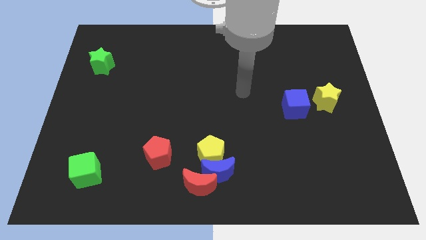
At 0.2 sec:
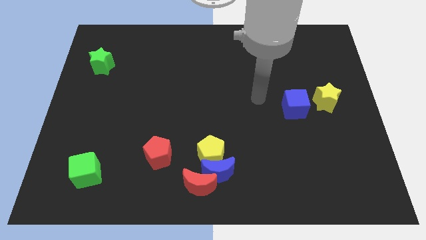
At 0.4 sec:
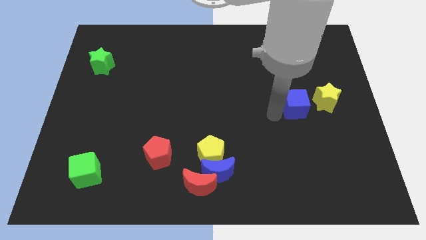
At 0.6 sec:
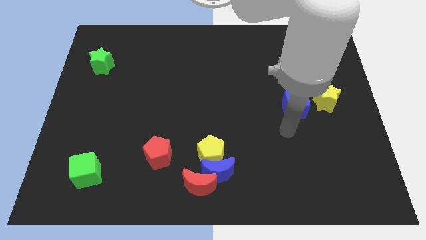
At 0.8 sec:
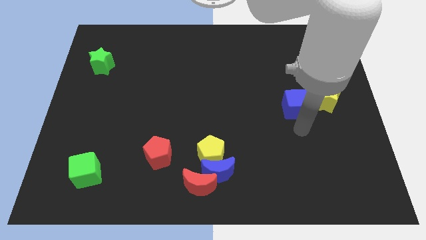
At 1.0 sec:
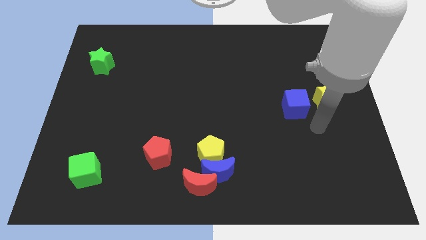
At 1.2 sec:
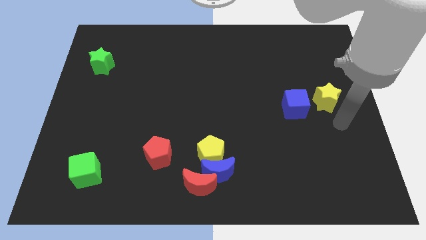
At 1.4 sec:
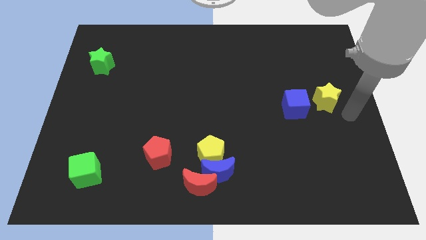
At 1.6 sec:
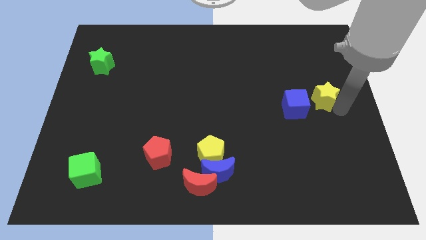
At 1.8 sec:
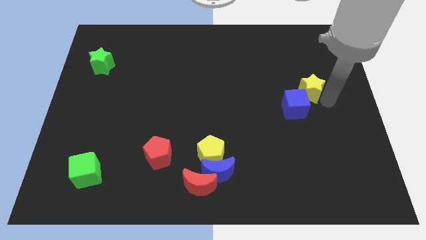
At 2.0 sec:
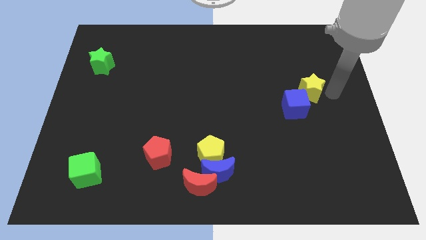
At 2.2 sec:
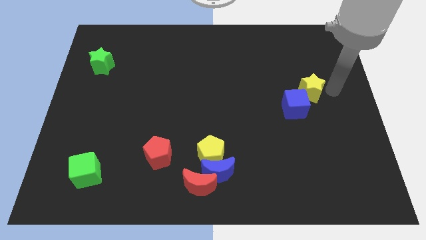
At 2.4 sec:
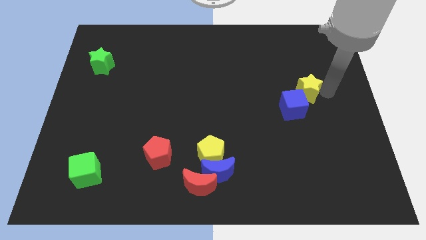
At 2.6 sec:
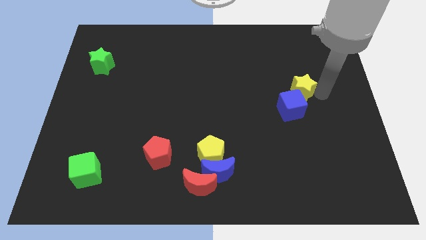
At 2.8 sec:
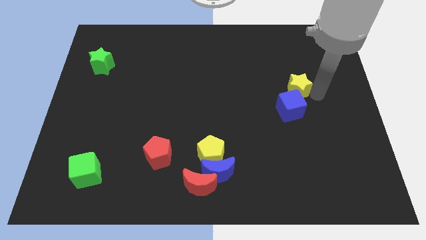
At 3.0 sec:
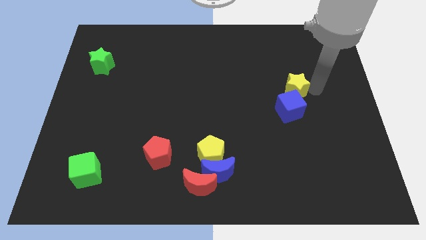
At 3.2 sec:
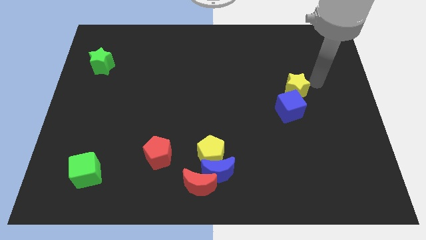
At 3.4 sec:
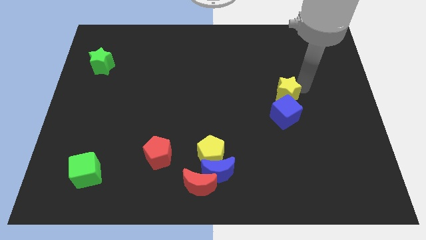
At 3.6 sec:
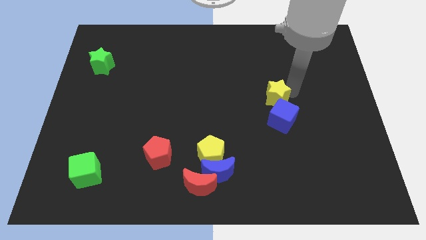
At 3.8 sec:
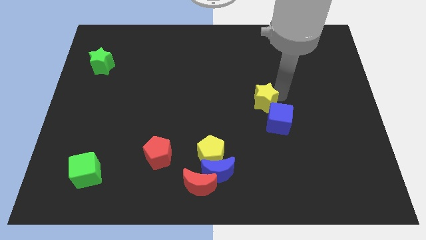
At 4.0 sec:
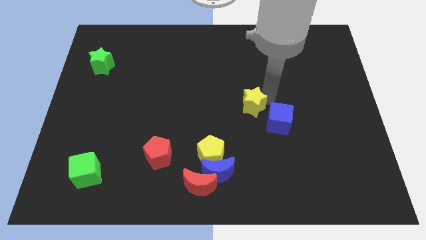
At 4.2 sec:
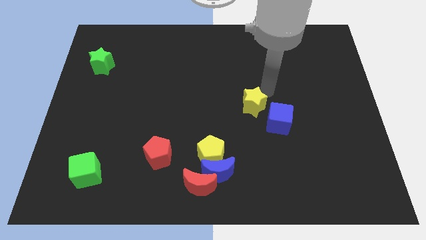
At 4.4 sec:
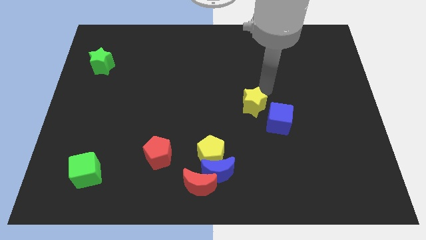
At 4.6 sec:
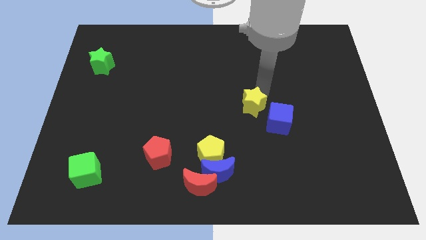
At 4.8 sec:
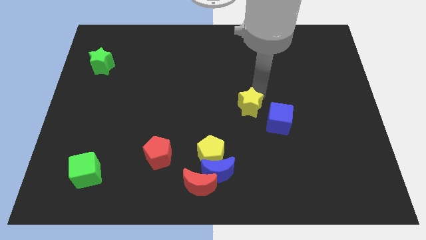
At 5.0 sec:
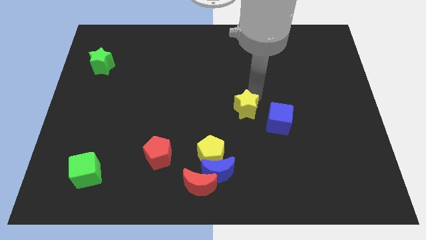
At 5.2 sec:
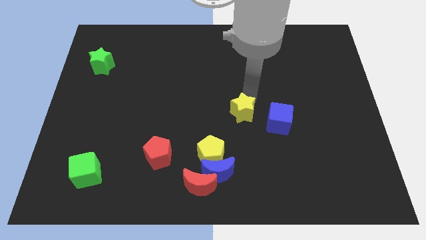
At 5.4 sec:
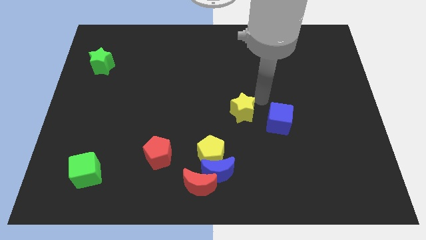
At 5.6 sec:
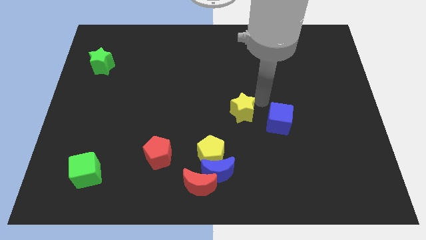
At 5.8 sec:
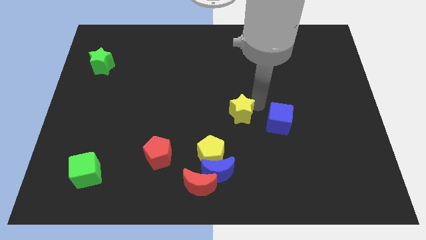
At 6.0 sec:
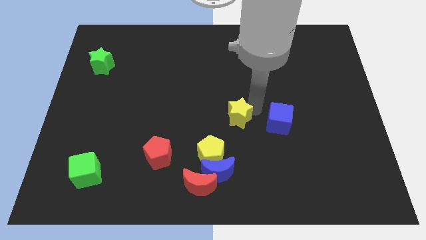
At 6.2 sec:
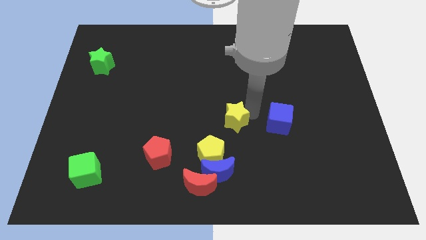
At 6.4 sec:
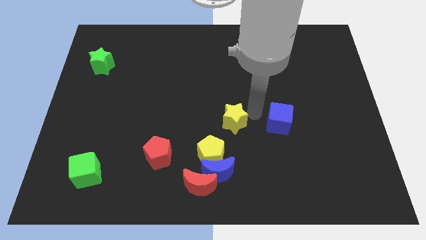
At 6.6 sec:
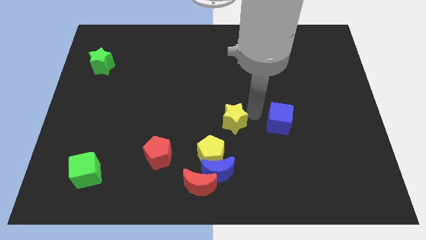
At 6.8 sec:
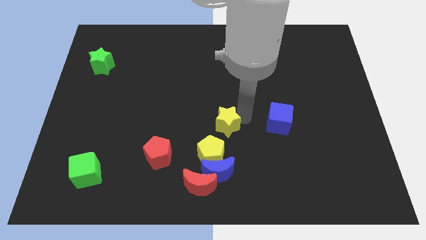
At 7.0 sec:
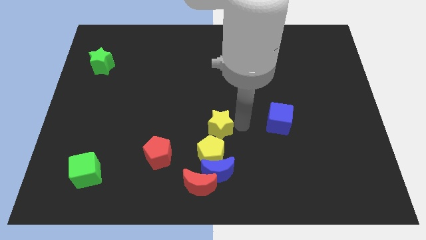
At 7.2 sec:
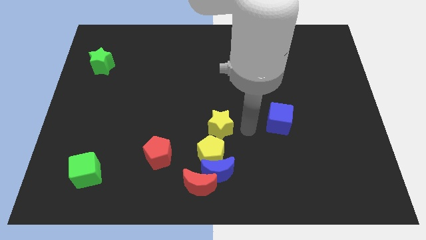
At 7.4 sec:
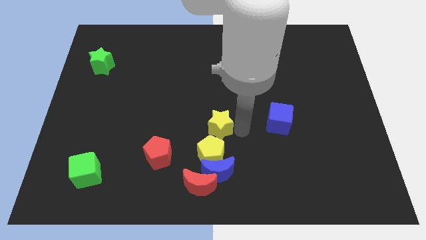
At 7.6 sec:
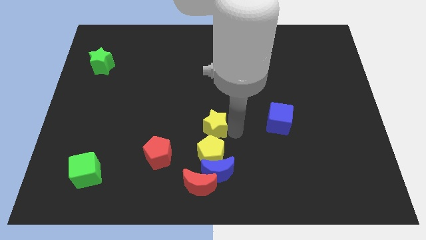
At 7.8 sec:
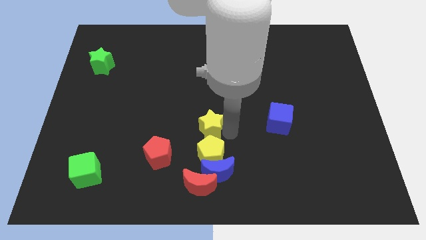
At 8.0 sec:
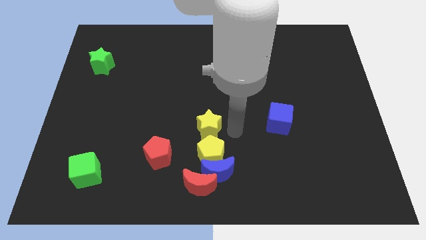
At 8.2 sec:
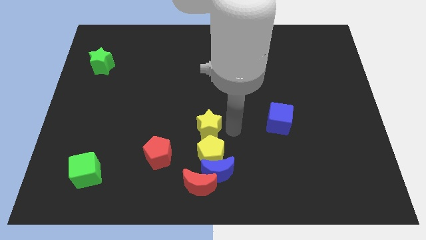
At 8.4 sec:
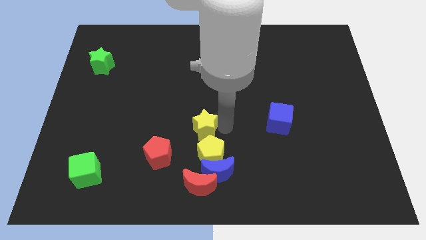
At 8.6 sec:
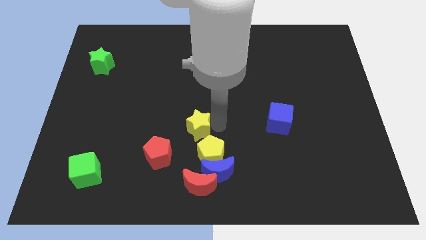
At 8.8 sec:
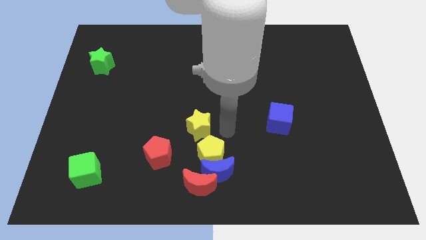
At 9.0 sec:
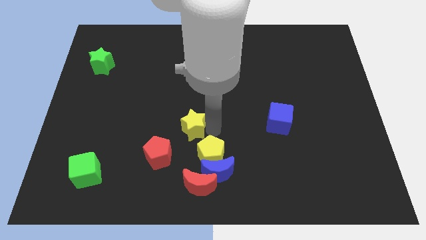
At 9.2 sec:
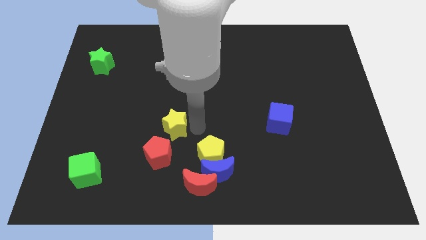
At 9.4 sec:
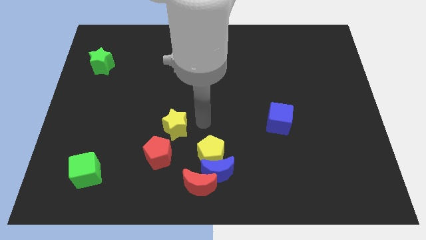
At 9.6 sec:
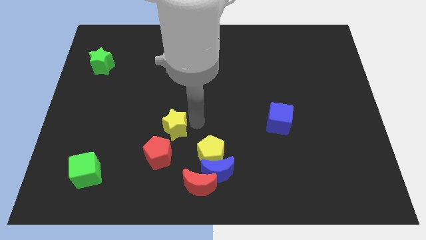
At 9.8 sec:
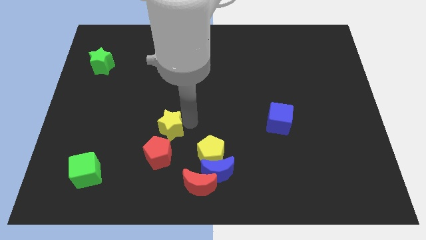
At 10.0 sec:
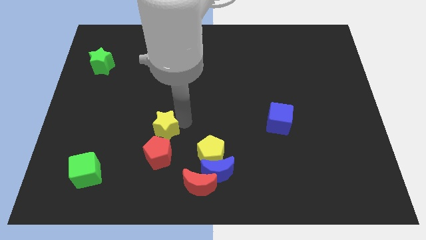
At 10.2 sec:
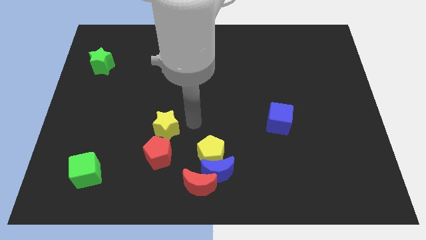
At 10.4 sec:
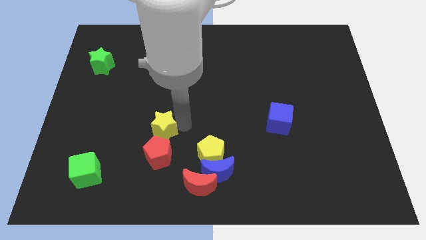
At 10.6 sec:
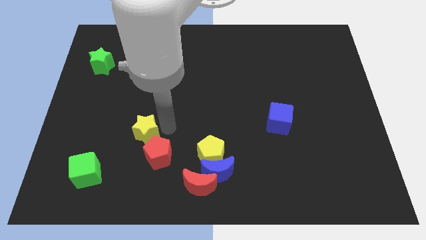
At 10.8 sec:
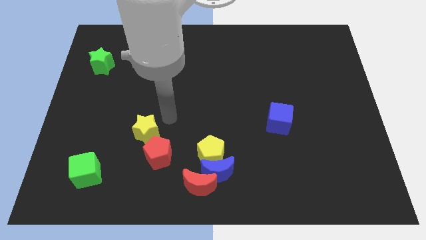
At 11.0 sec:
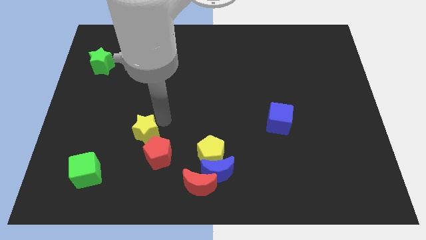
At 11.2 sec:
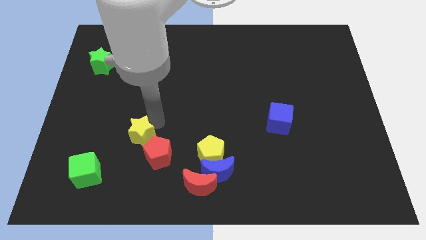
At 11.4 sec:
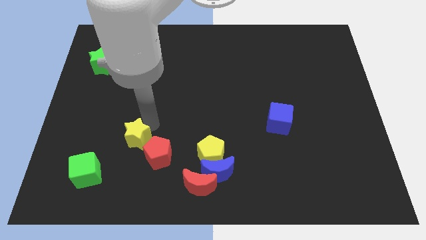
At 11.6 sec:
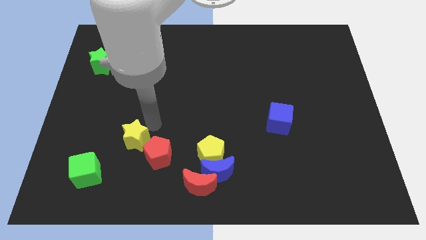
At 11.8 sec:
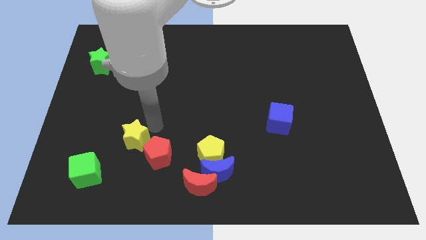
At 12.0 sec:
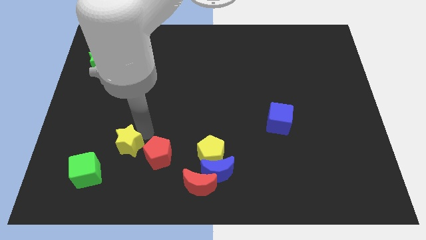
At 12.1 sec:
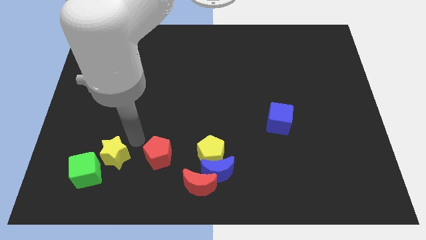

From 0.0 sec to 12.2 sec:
slide the yellow star to the green cube
